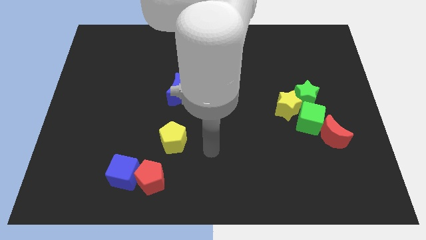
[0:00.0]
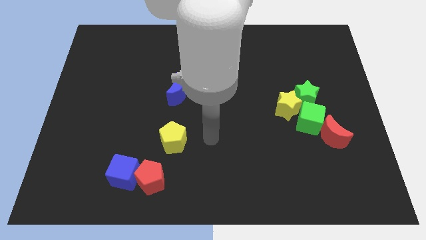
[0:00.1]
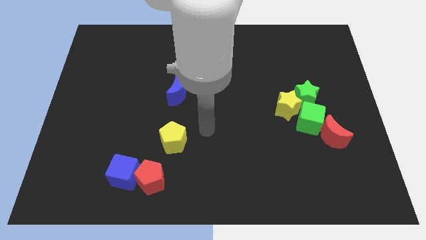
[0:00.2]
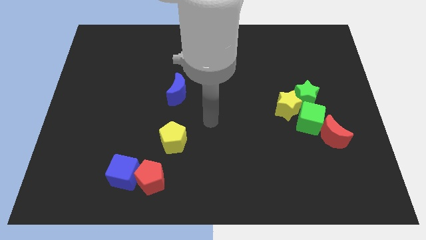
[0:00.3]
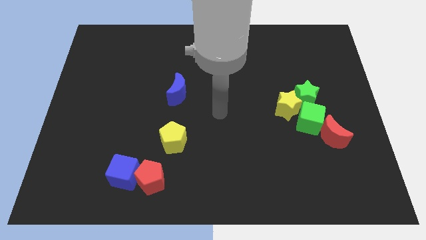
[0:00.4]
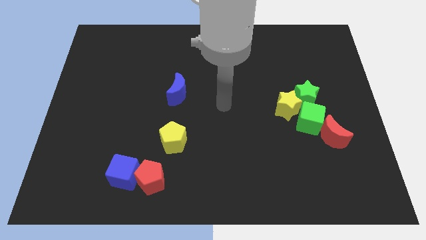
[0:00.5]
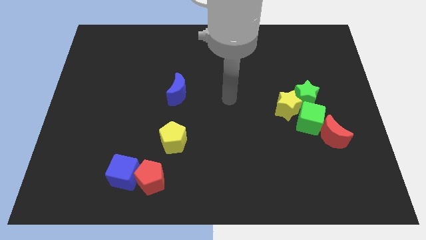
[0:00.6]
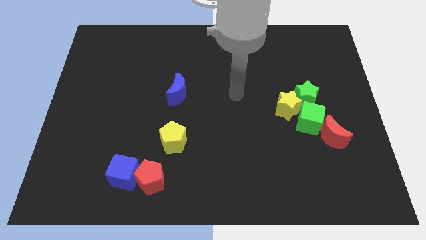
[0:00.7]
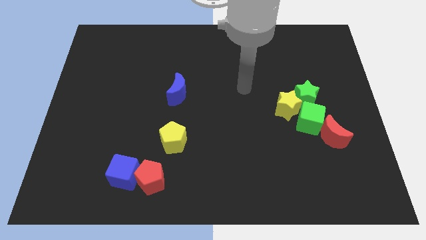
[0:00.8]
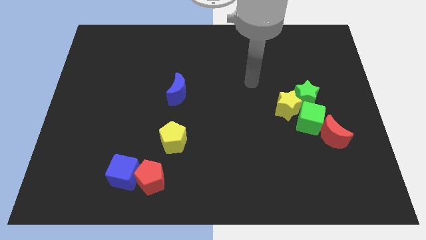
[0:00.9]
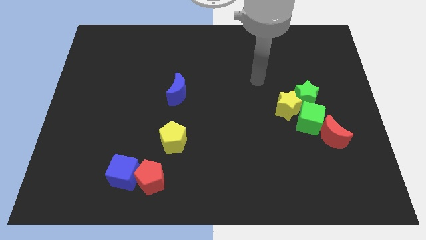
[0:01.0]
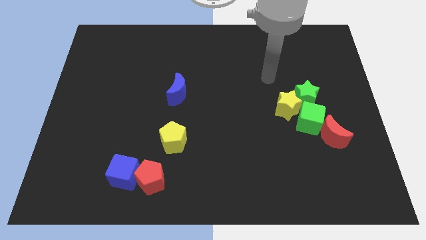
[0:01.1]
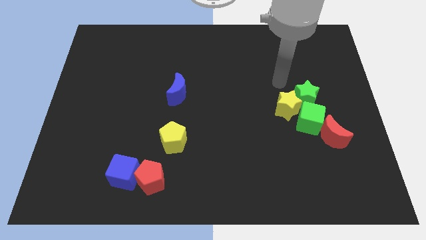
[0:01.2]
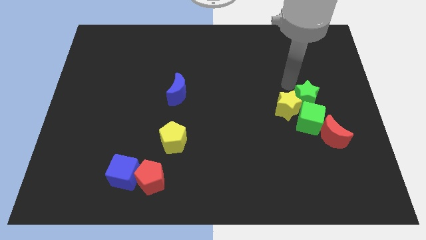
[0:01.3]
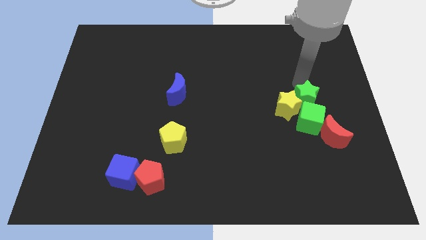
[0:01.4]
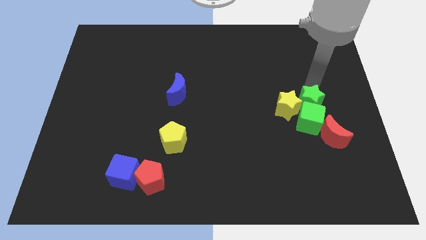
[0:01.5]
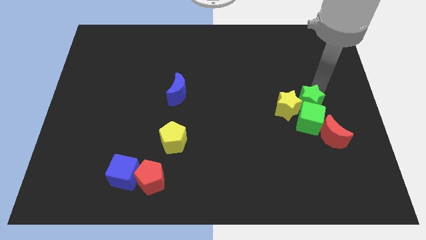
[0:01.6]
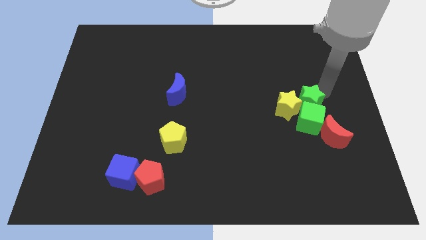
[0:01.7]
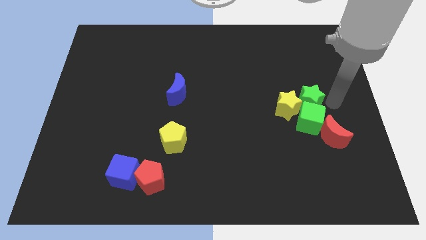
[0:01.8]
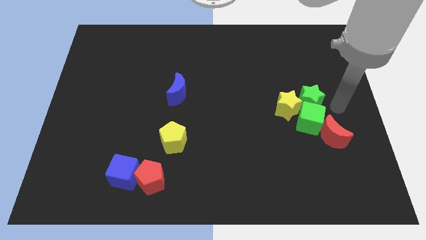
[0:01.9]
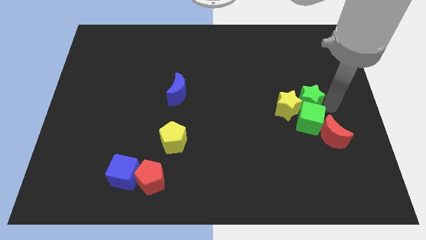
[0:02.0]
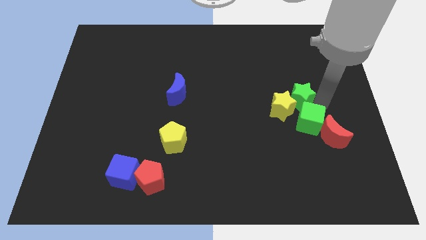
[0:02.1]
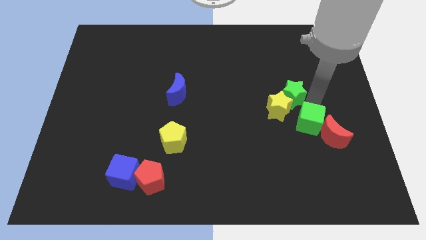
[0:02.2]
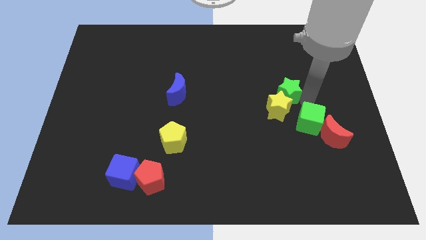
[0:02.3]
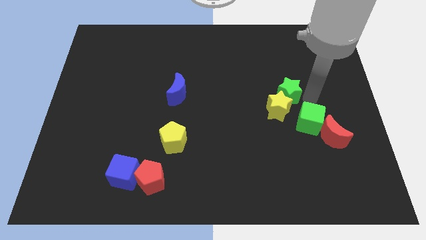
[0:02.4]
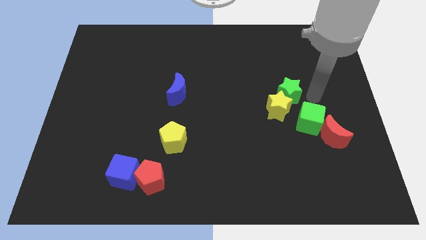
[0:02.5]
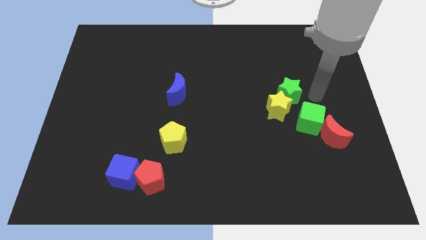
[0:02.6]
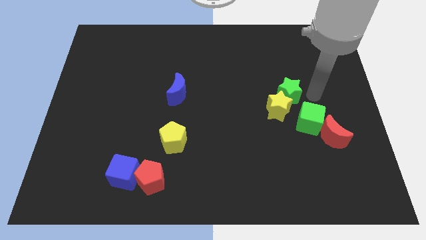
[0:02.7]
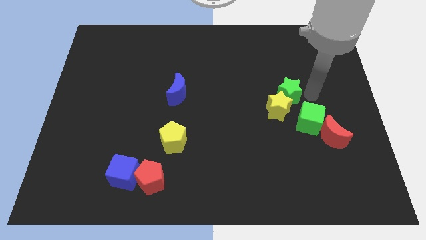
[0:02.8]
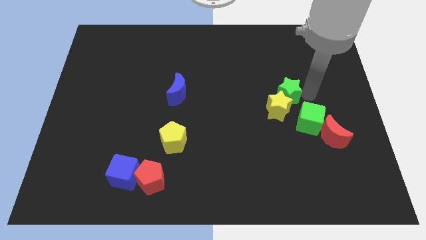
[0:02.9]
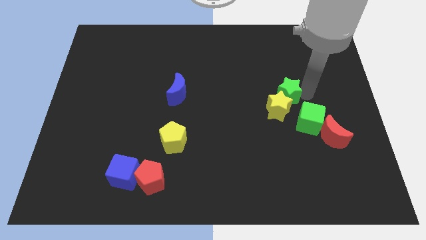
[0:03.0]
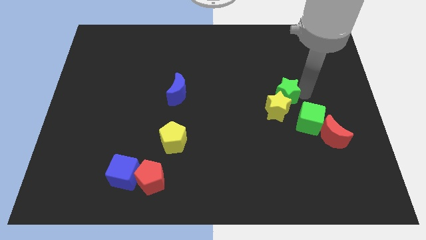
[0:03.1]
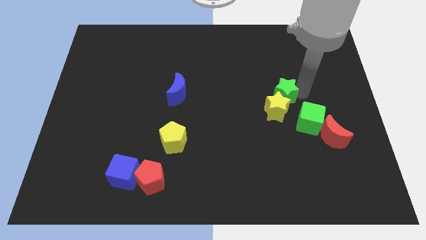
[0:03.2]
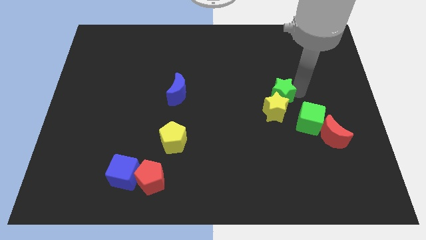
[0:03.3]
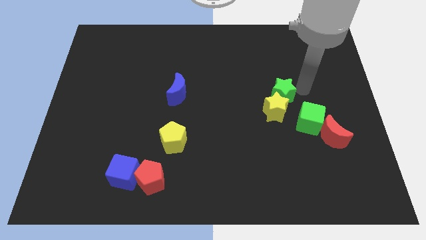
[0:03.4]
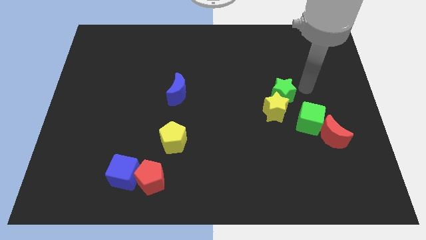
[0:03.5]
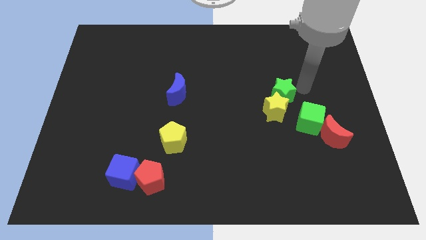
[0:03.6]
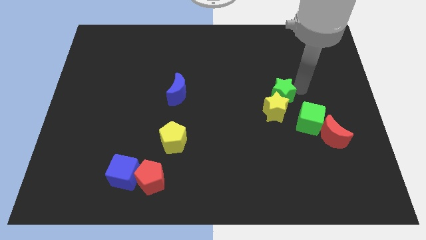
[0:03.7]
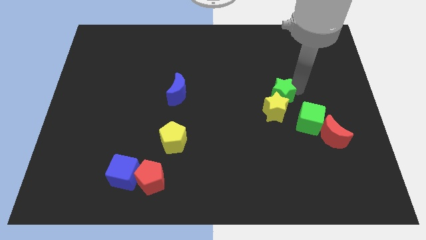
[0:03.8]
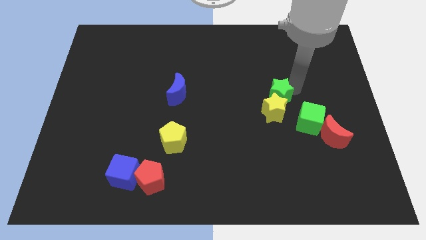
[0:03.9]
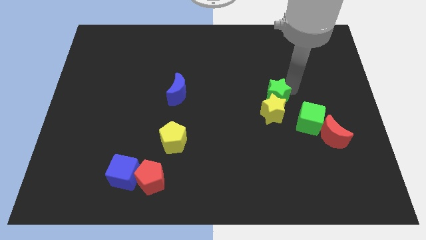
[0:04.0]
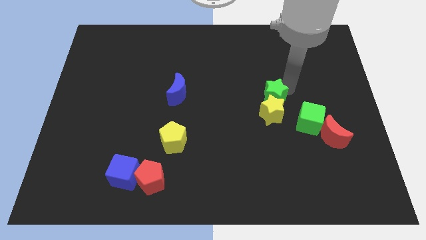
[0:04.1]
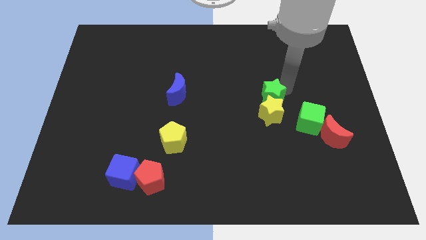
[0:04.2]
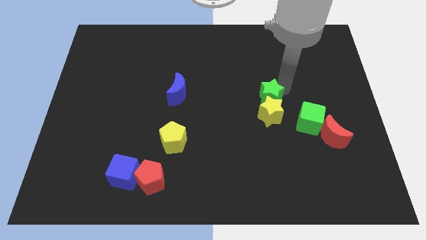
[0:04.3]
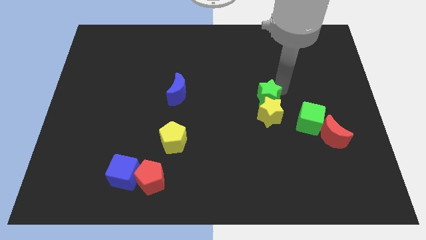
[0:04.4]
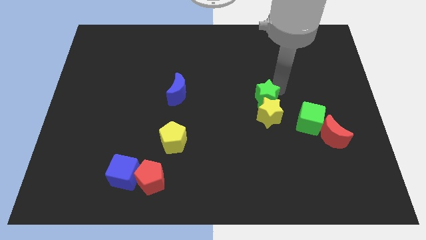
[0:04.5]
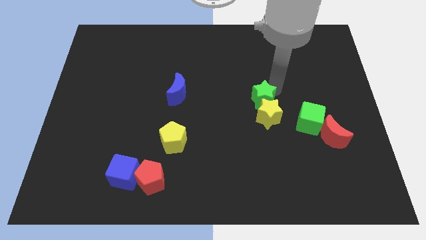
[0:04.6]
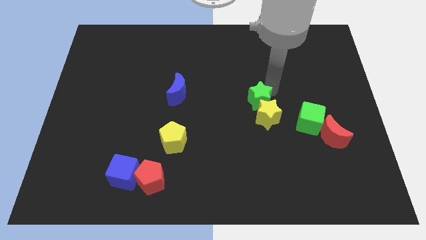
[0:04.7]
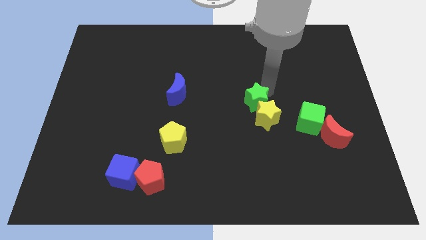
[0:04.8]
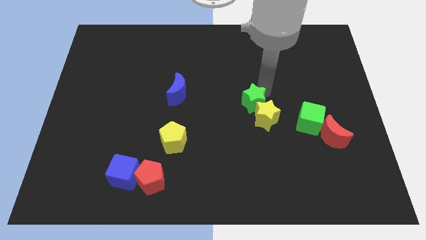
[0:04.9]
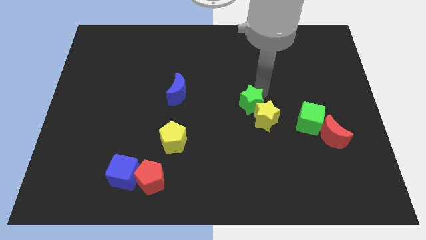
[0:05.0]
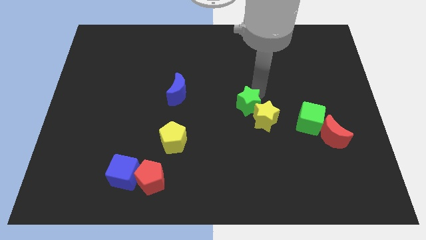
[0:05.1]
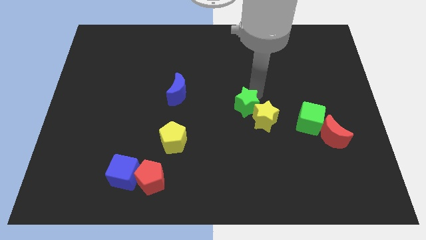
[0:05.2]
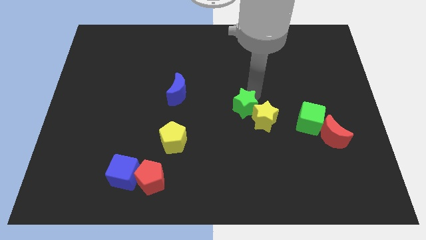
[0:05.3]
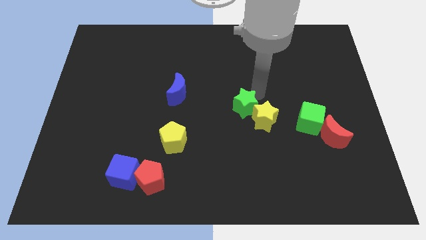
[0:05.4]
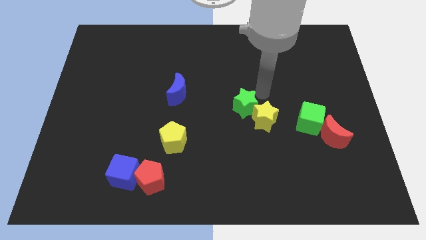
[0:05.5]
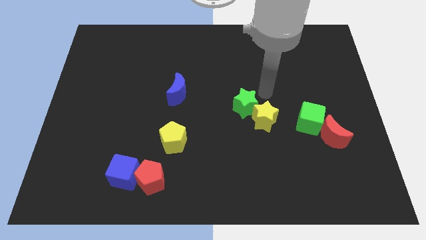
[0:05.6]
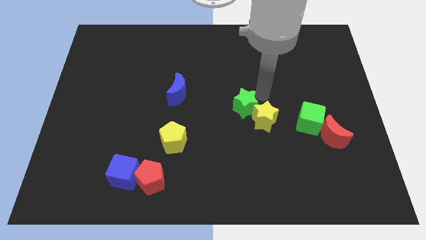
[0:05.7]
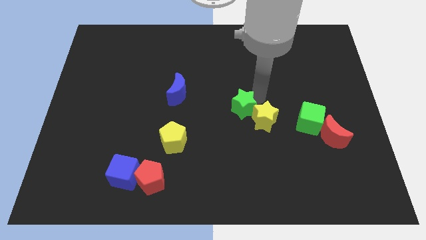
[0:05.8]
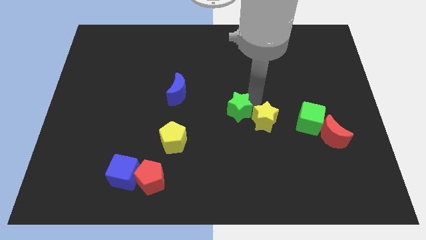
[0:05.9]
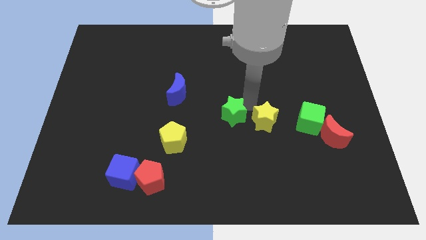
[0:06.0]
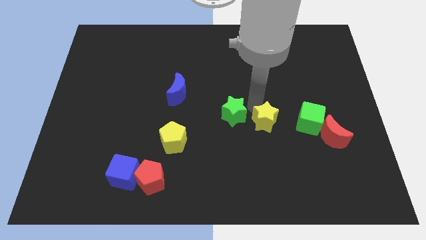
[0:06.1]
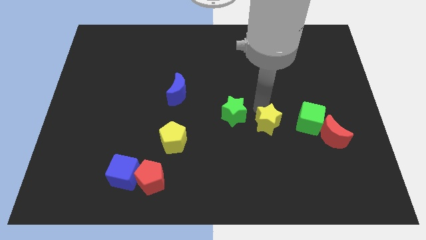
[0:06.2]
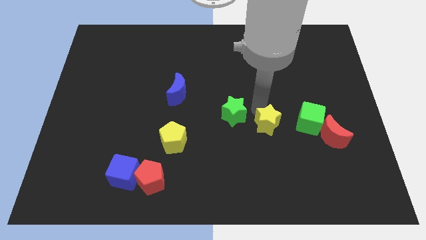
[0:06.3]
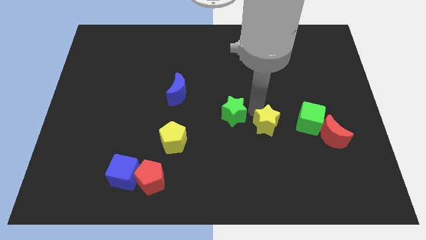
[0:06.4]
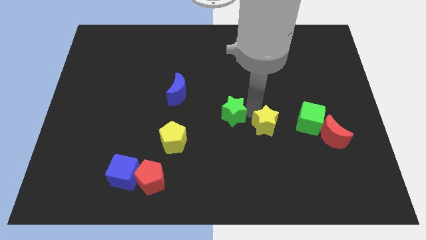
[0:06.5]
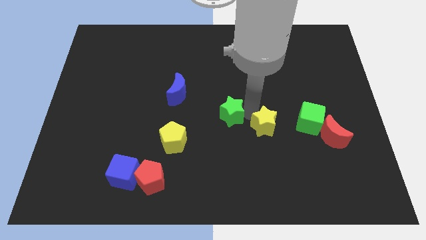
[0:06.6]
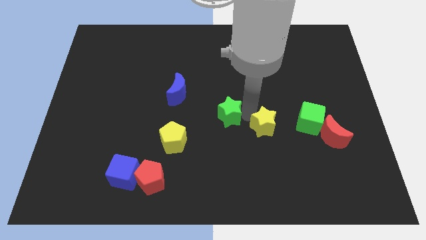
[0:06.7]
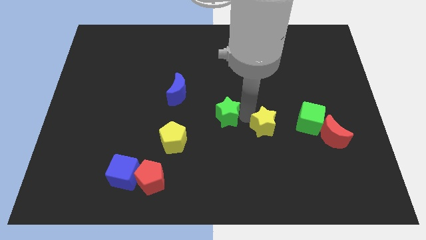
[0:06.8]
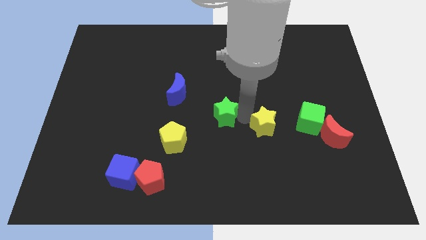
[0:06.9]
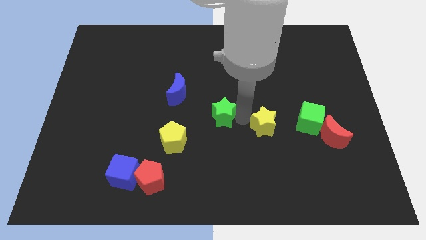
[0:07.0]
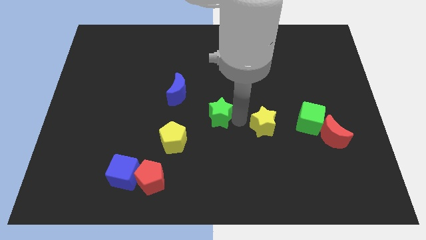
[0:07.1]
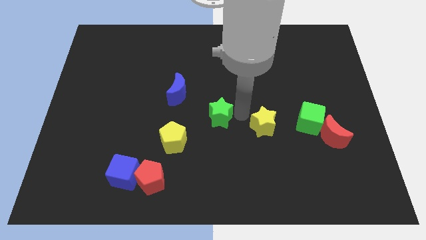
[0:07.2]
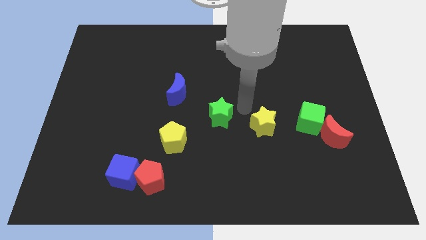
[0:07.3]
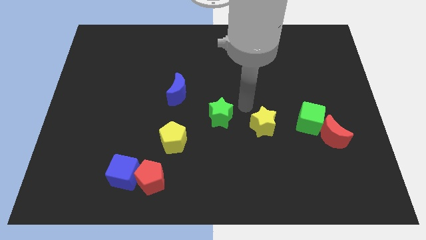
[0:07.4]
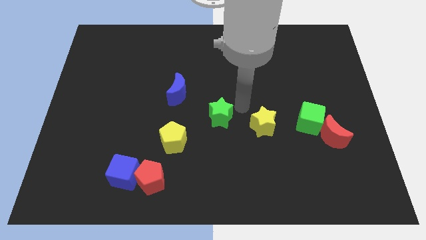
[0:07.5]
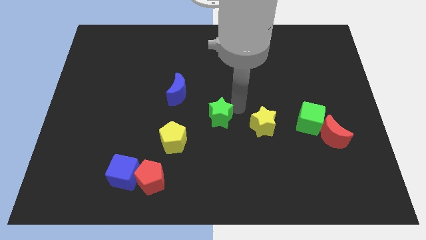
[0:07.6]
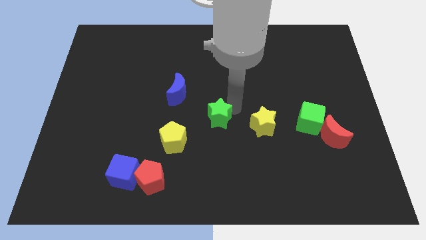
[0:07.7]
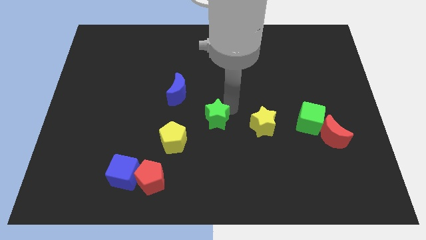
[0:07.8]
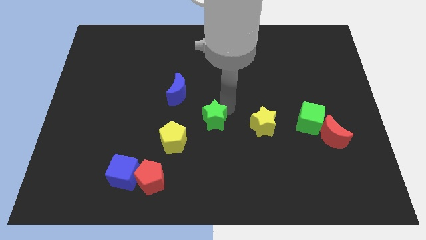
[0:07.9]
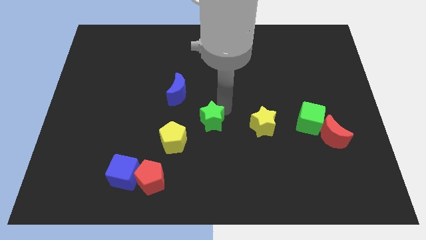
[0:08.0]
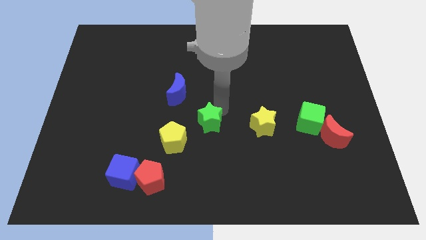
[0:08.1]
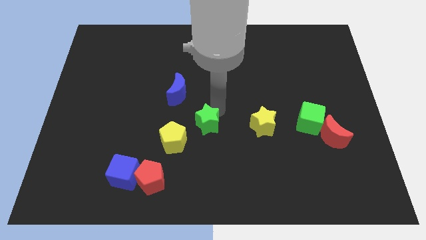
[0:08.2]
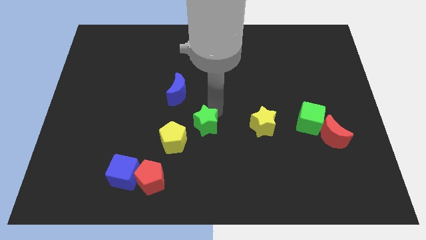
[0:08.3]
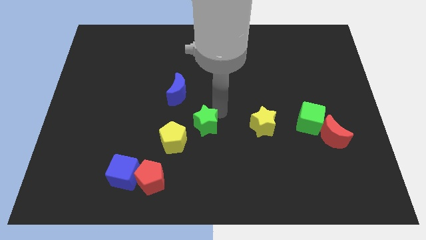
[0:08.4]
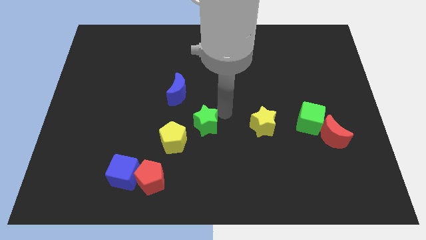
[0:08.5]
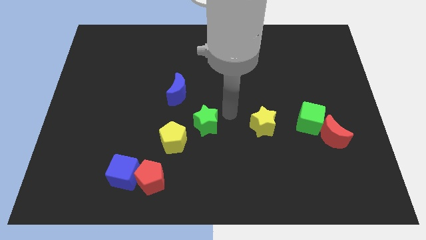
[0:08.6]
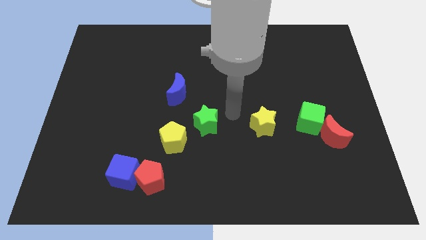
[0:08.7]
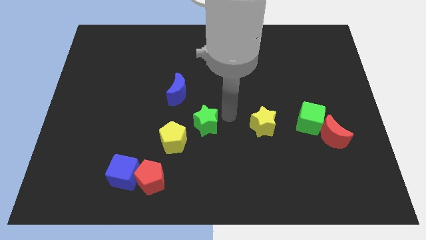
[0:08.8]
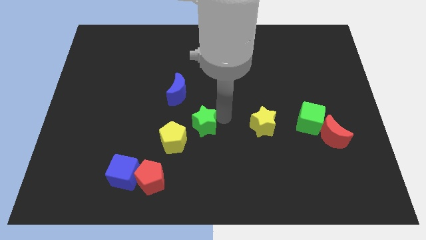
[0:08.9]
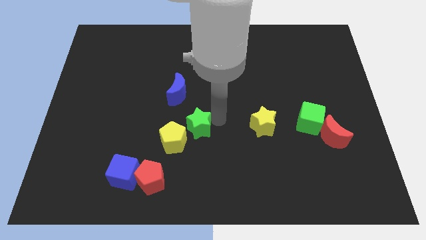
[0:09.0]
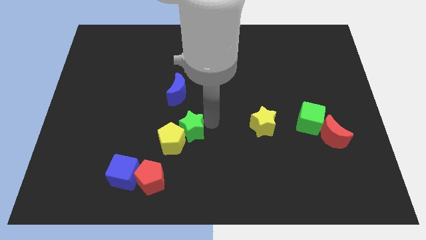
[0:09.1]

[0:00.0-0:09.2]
put the green star next to the yellow pentagon
